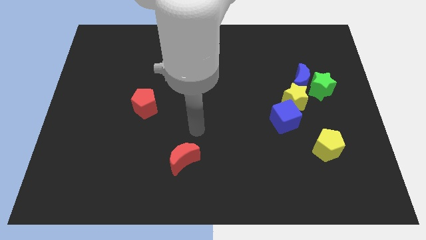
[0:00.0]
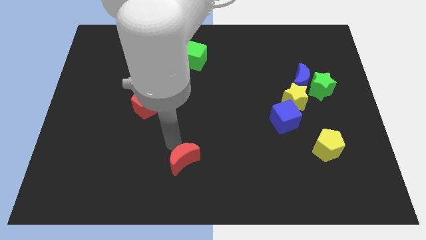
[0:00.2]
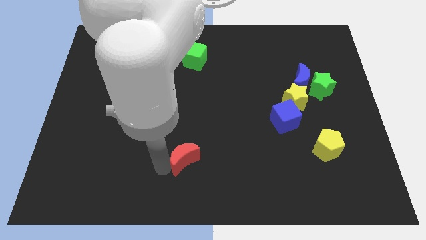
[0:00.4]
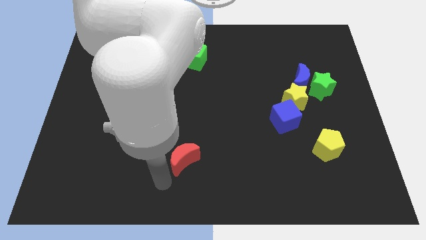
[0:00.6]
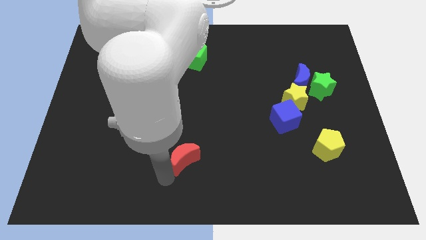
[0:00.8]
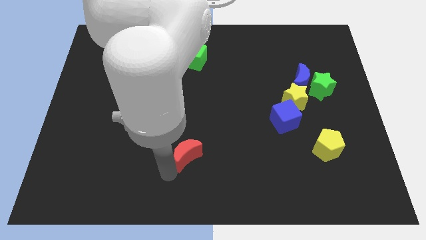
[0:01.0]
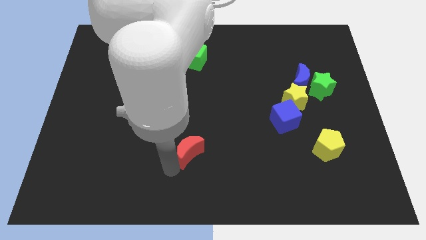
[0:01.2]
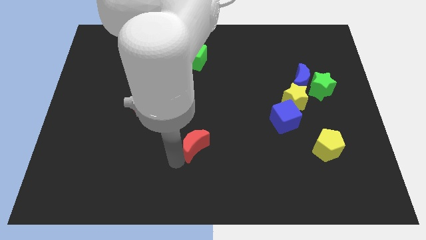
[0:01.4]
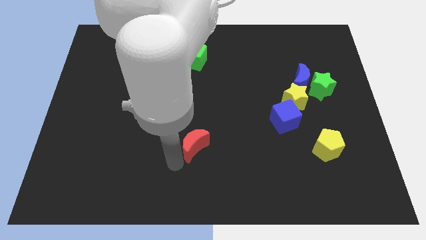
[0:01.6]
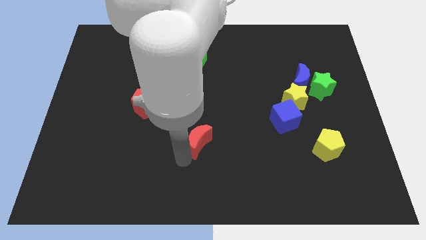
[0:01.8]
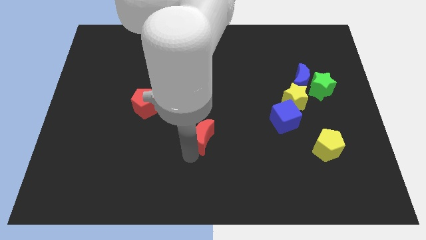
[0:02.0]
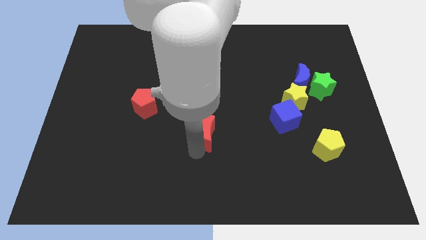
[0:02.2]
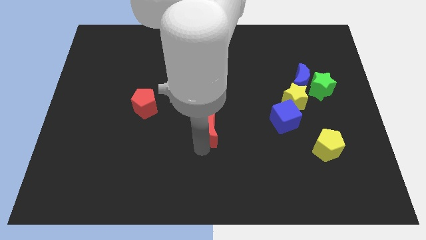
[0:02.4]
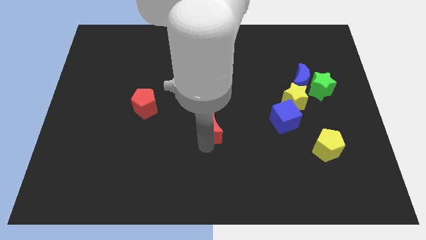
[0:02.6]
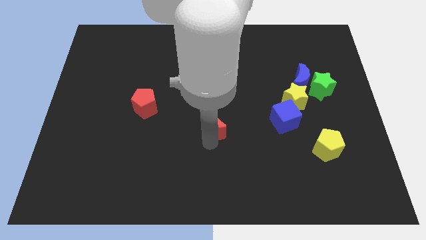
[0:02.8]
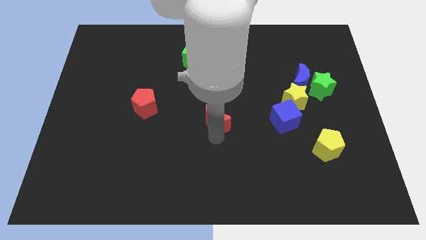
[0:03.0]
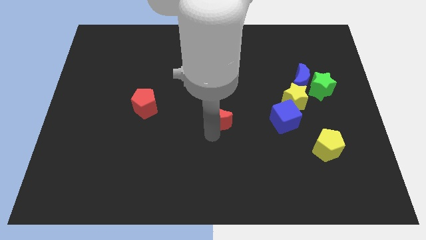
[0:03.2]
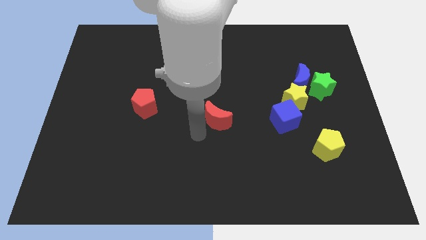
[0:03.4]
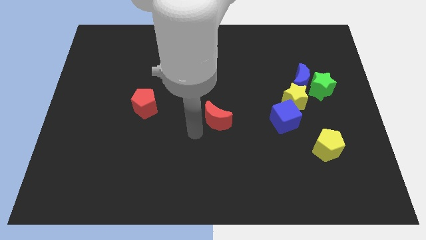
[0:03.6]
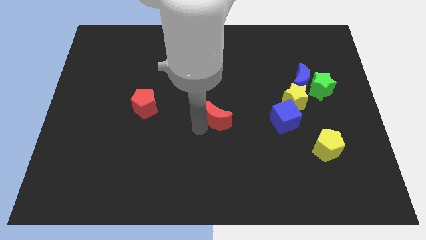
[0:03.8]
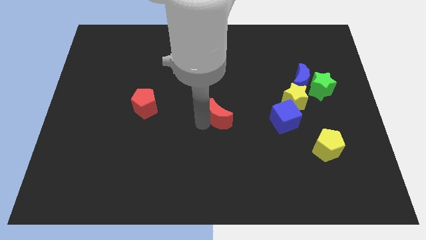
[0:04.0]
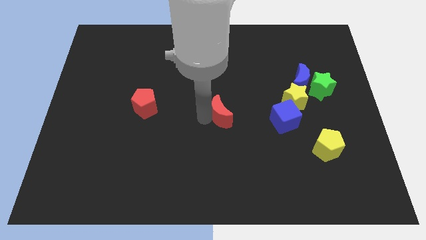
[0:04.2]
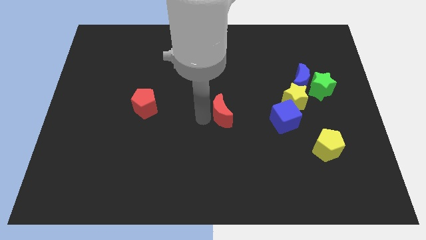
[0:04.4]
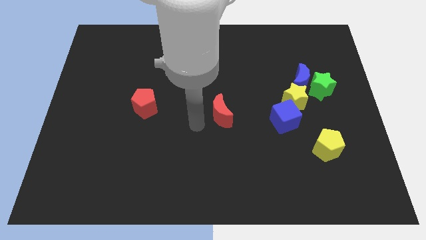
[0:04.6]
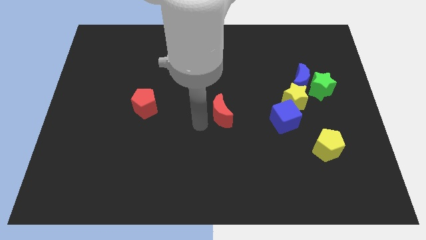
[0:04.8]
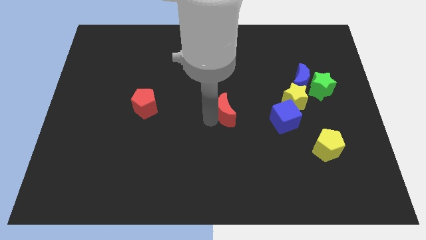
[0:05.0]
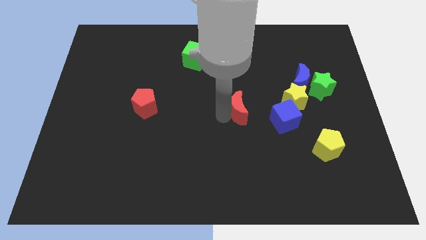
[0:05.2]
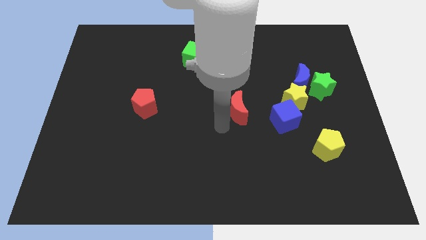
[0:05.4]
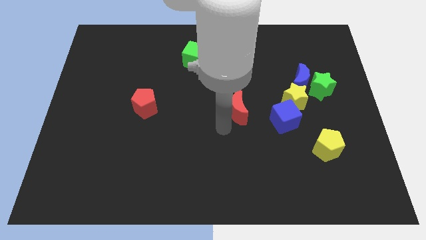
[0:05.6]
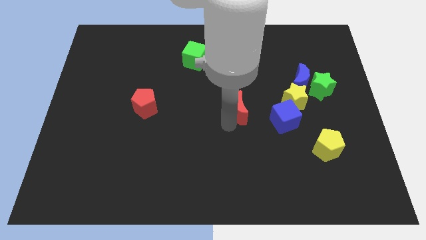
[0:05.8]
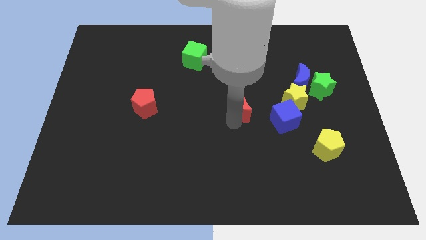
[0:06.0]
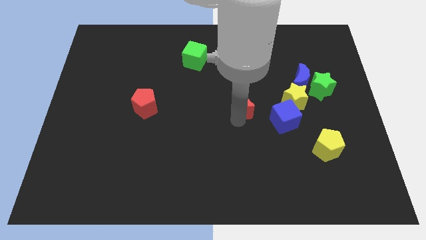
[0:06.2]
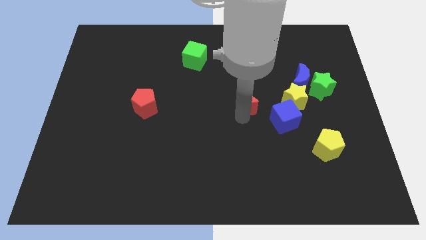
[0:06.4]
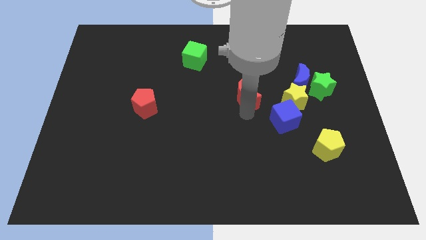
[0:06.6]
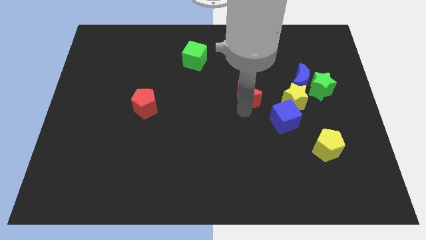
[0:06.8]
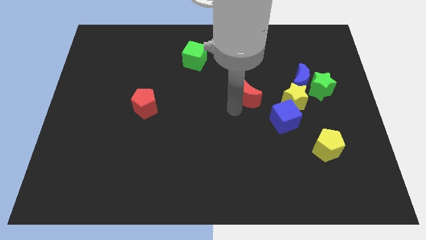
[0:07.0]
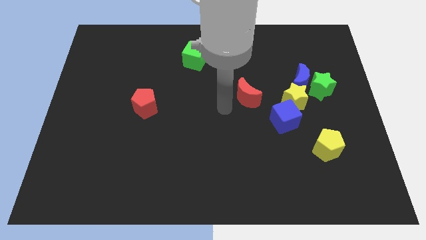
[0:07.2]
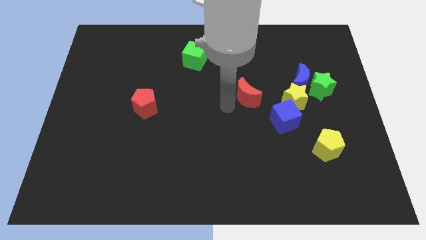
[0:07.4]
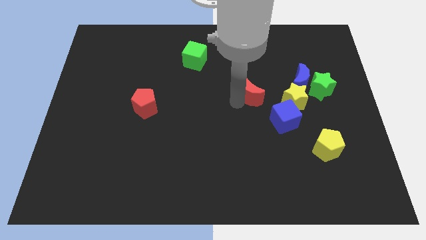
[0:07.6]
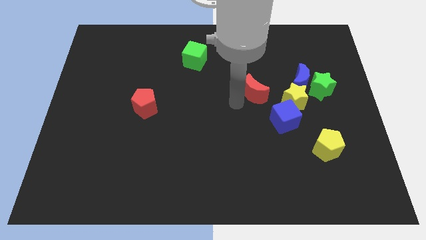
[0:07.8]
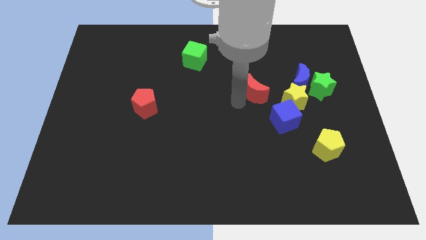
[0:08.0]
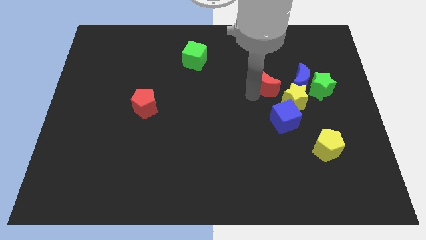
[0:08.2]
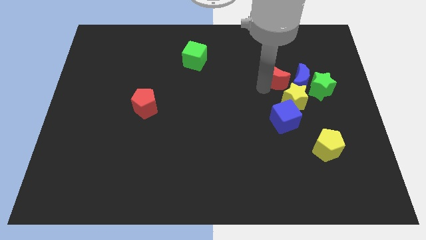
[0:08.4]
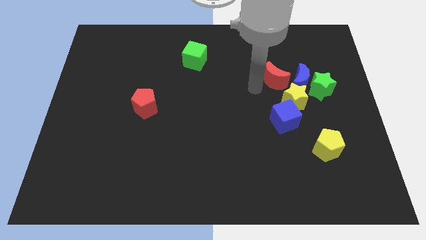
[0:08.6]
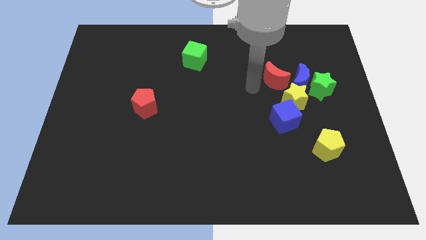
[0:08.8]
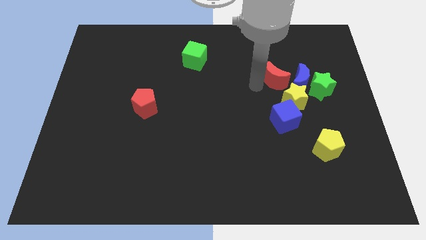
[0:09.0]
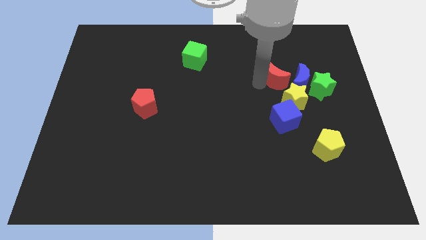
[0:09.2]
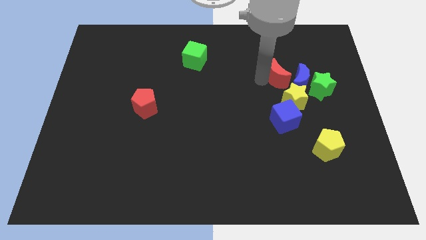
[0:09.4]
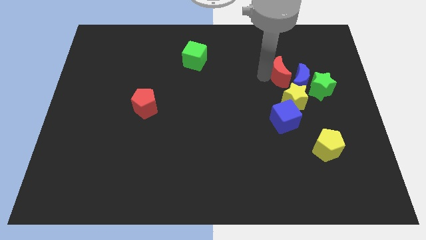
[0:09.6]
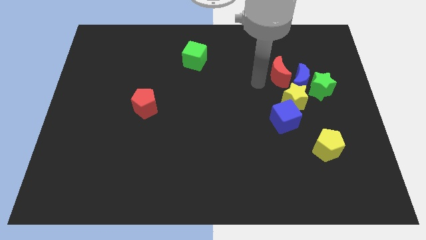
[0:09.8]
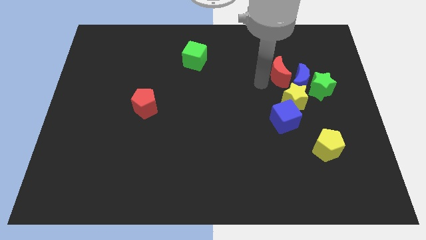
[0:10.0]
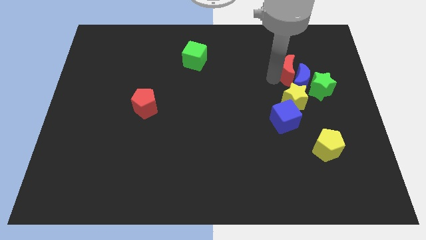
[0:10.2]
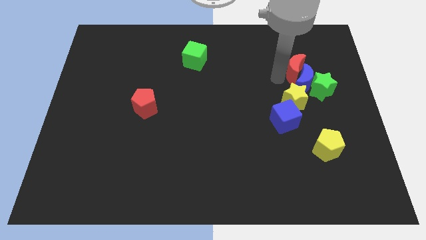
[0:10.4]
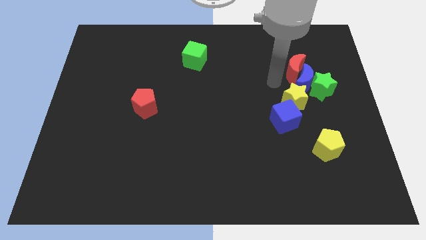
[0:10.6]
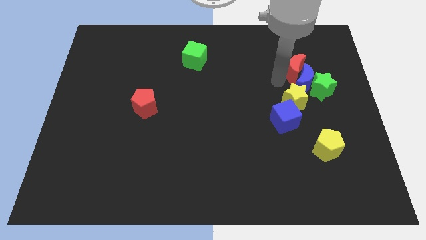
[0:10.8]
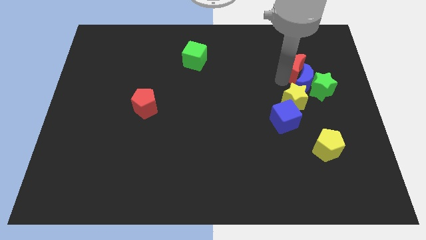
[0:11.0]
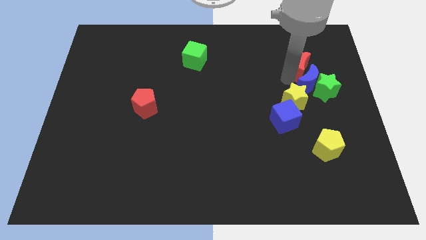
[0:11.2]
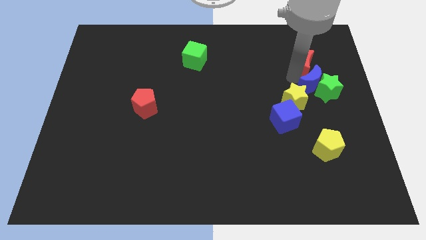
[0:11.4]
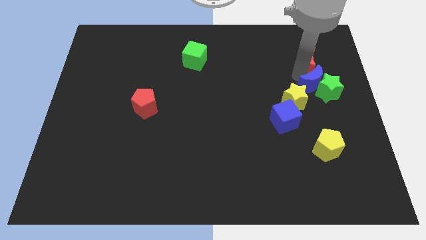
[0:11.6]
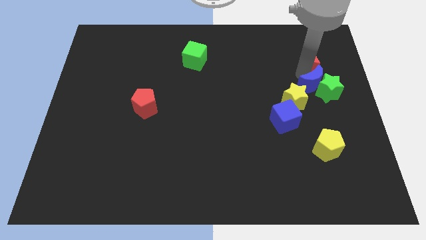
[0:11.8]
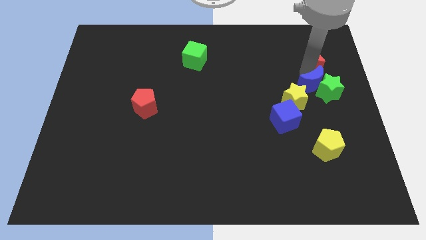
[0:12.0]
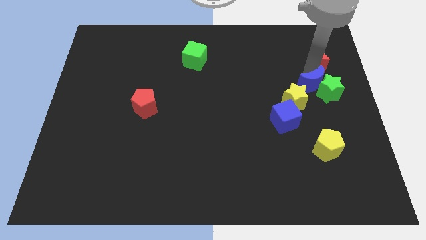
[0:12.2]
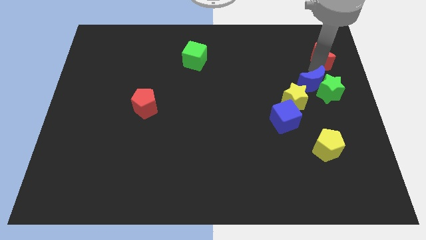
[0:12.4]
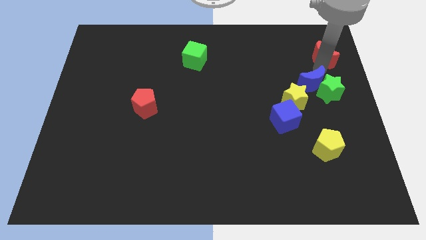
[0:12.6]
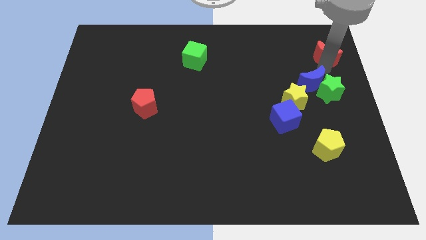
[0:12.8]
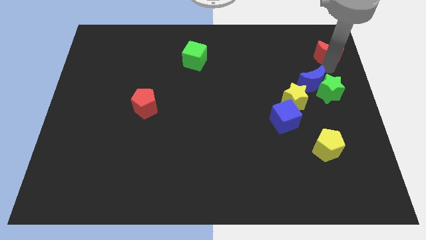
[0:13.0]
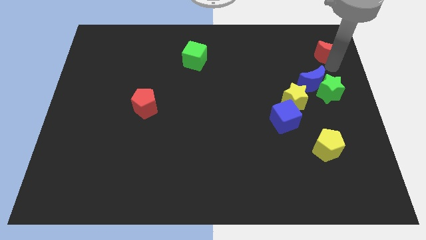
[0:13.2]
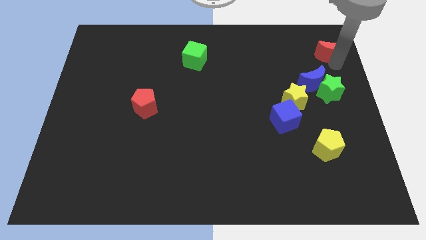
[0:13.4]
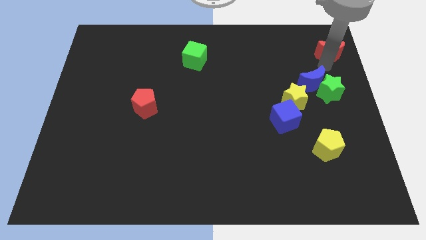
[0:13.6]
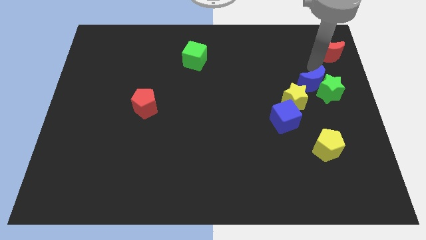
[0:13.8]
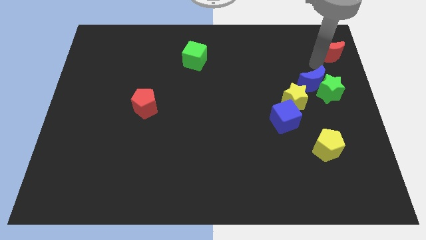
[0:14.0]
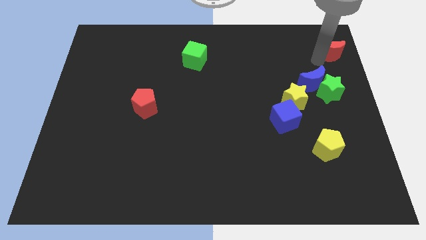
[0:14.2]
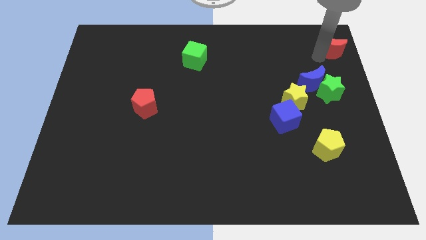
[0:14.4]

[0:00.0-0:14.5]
put the red moon to the top right
